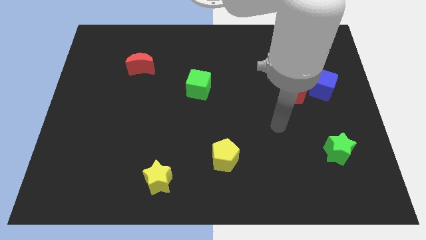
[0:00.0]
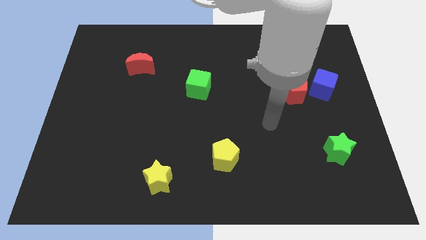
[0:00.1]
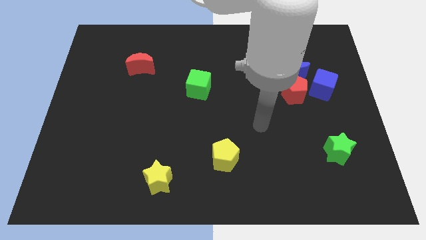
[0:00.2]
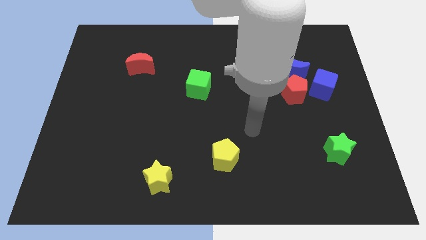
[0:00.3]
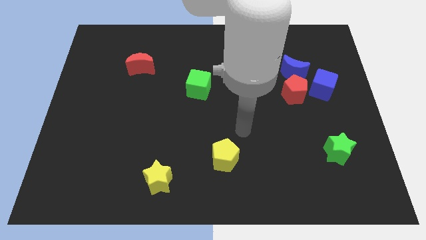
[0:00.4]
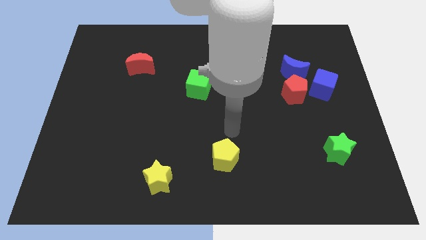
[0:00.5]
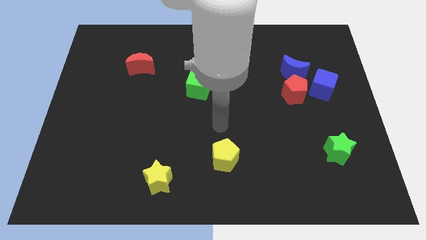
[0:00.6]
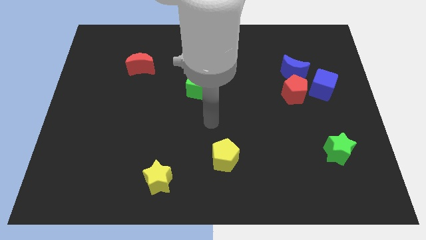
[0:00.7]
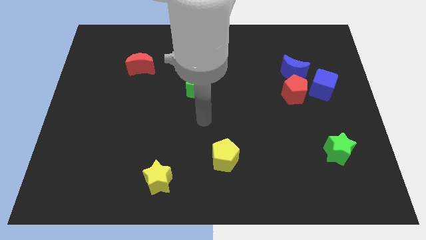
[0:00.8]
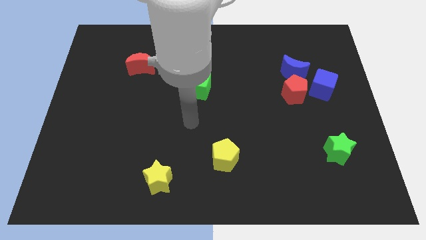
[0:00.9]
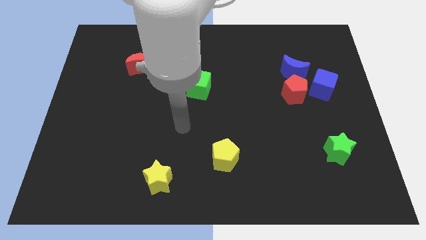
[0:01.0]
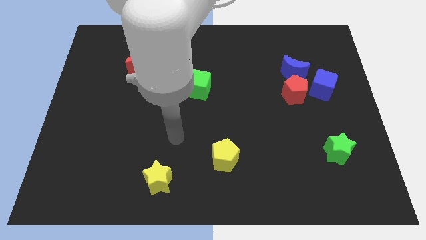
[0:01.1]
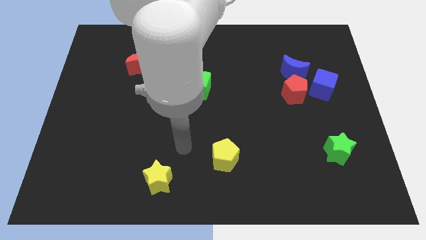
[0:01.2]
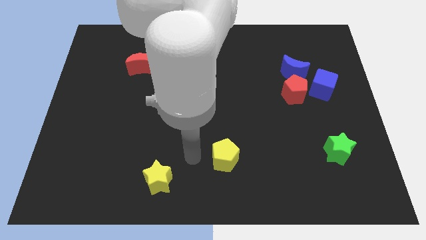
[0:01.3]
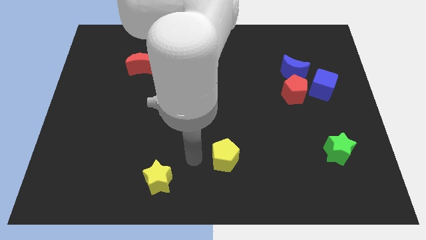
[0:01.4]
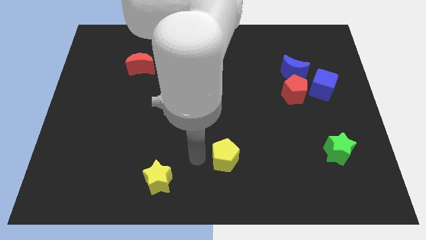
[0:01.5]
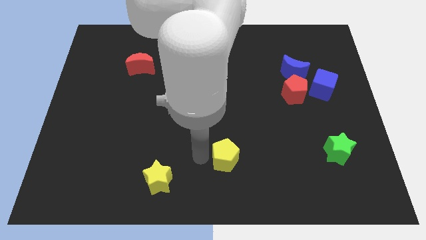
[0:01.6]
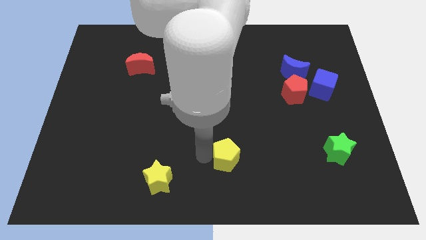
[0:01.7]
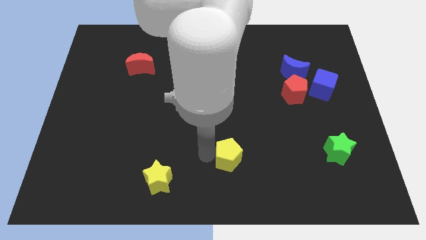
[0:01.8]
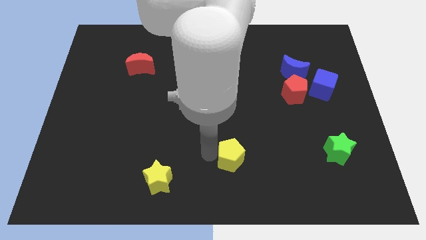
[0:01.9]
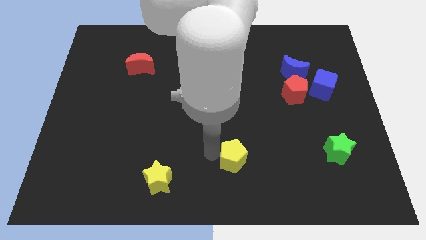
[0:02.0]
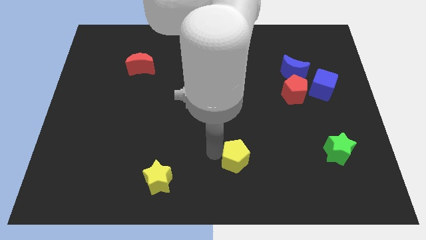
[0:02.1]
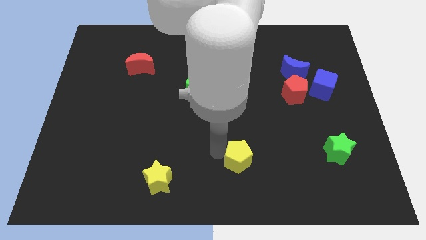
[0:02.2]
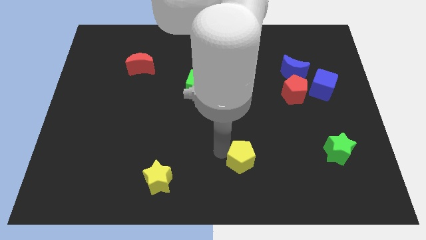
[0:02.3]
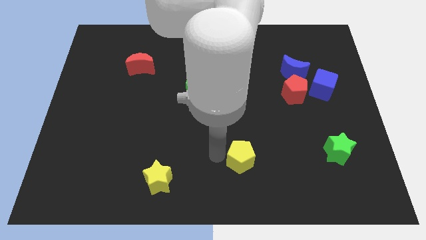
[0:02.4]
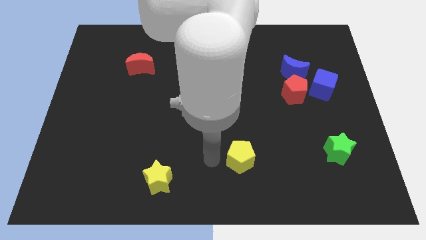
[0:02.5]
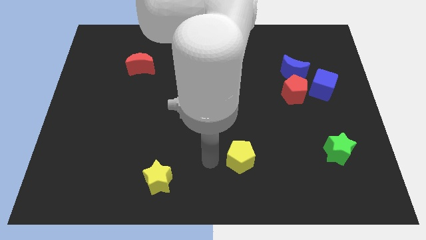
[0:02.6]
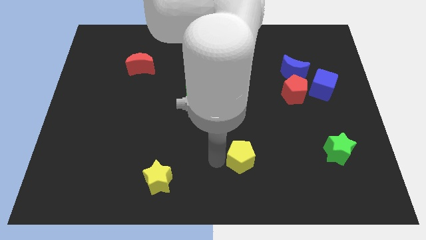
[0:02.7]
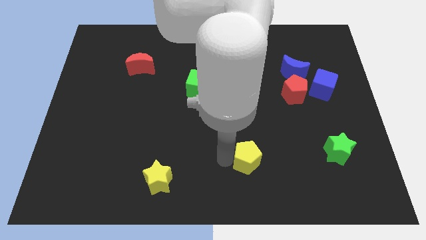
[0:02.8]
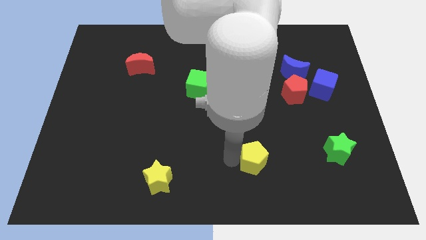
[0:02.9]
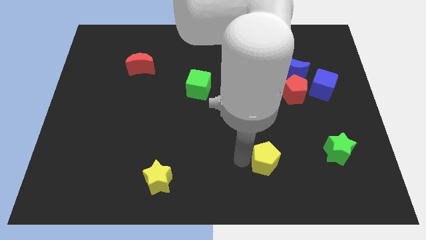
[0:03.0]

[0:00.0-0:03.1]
move the yellow pentagon a bit right

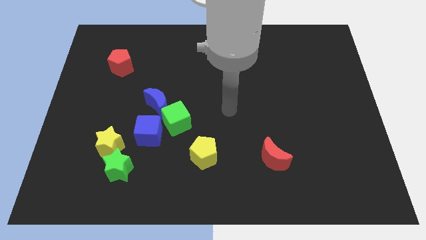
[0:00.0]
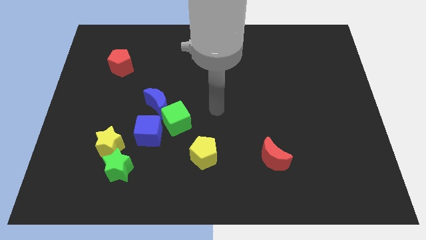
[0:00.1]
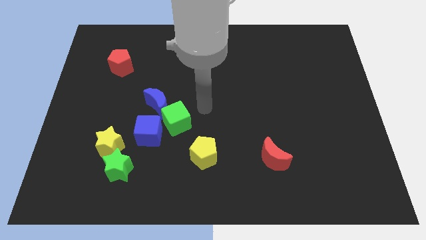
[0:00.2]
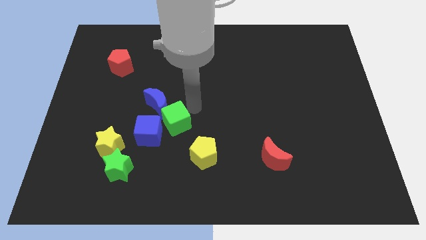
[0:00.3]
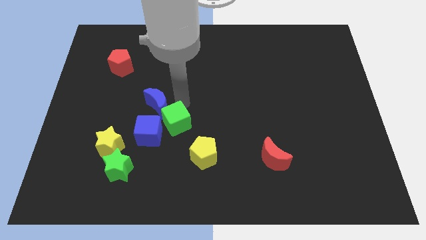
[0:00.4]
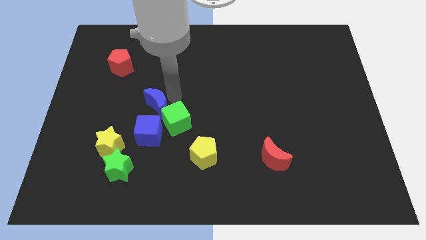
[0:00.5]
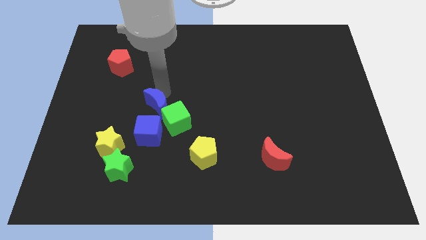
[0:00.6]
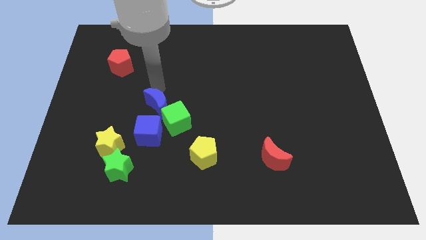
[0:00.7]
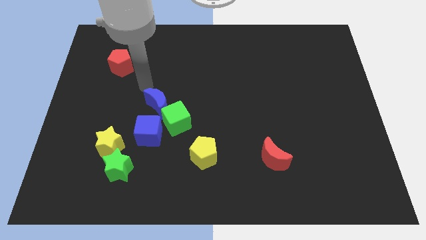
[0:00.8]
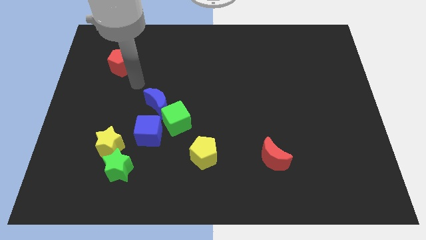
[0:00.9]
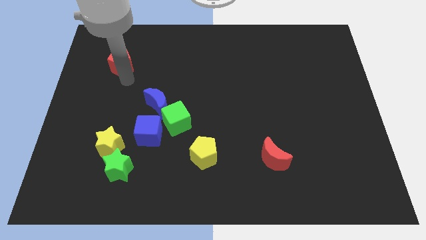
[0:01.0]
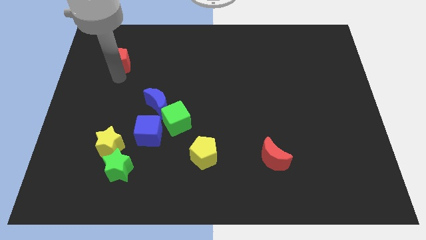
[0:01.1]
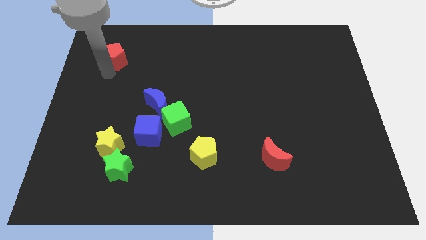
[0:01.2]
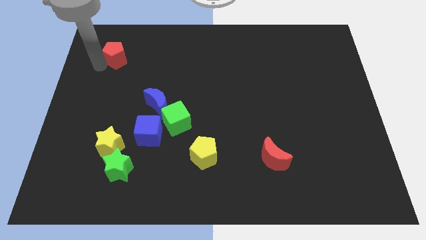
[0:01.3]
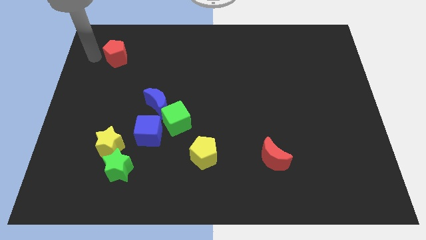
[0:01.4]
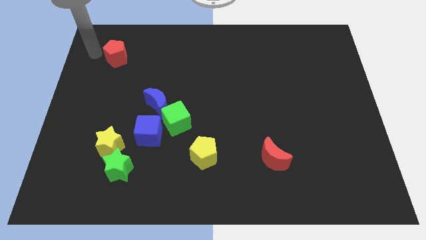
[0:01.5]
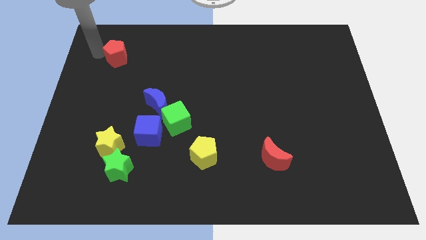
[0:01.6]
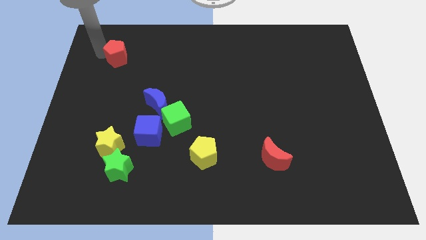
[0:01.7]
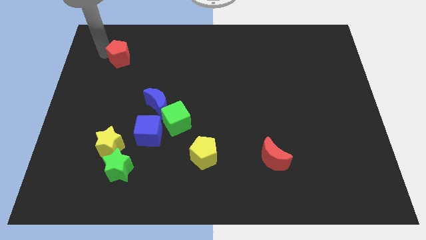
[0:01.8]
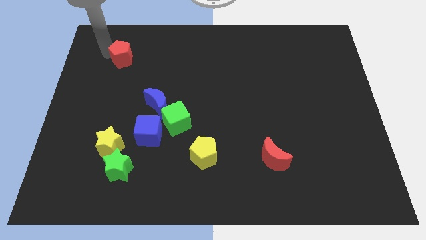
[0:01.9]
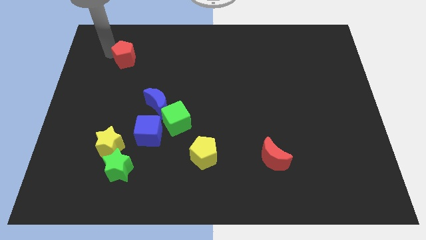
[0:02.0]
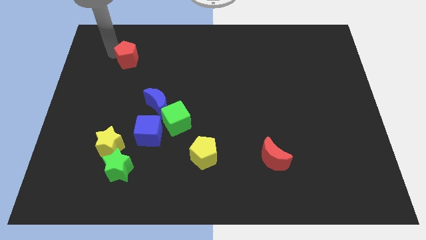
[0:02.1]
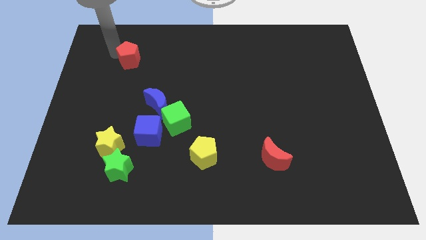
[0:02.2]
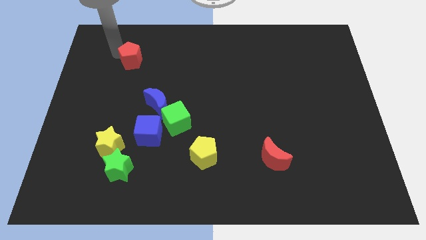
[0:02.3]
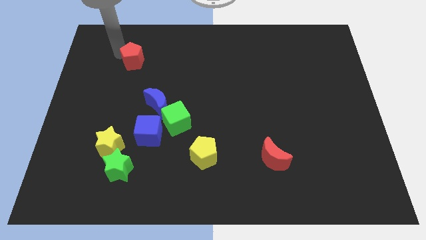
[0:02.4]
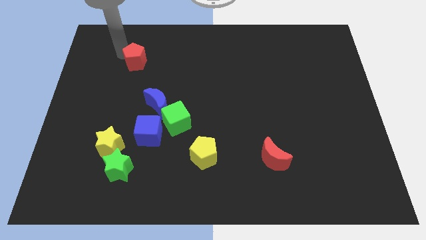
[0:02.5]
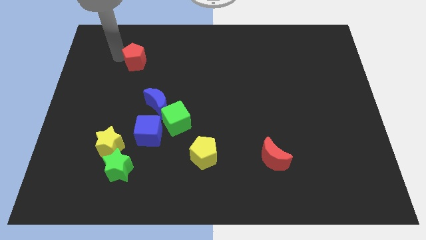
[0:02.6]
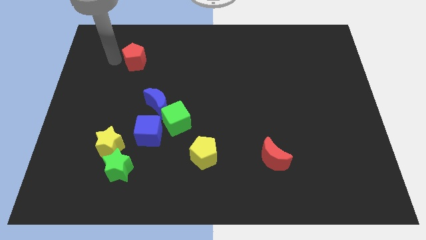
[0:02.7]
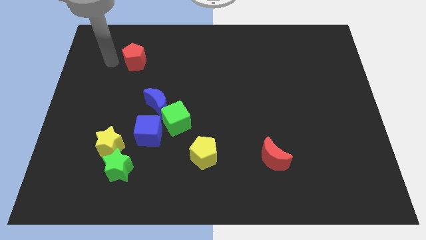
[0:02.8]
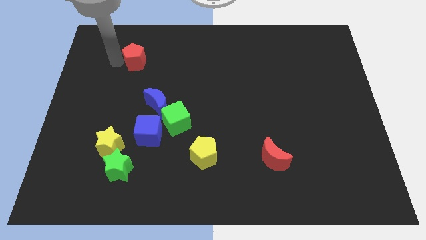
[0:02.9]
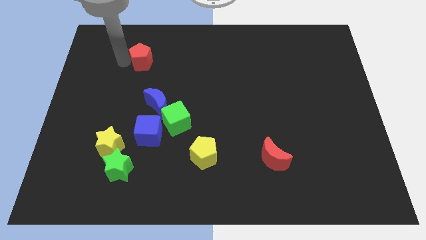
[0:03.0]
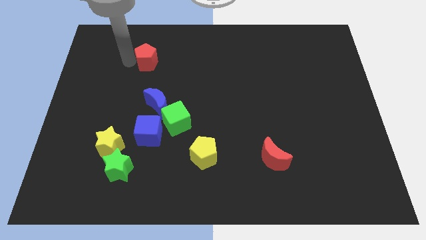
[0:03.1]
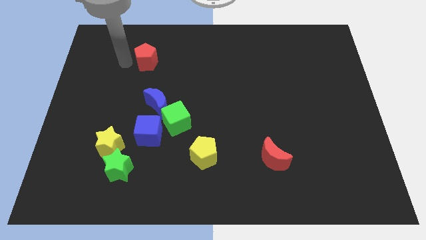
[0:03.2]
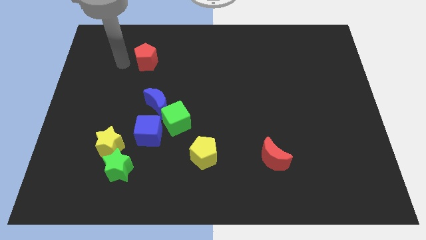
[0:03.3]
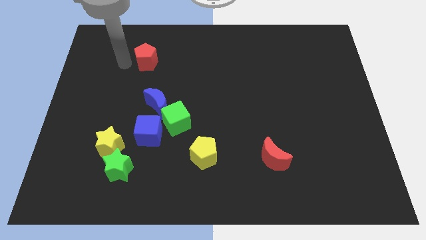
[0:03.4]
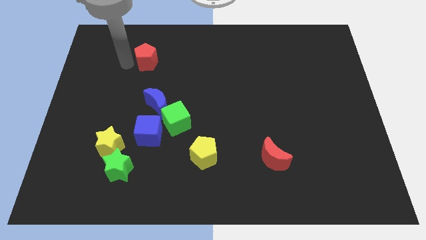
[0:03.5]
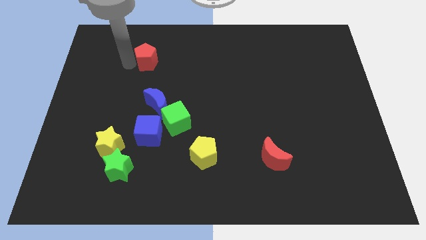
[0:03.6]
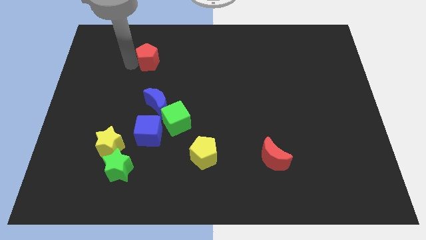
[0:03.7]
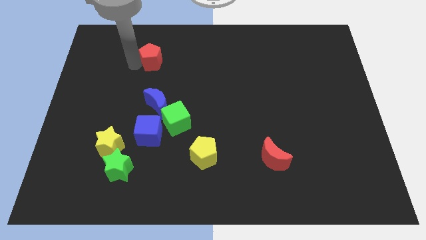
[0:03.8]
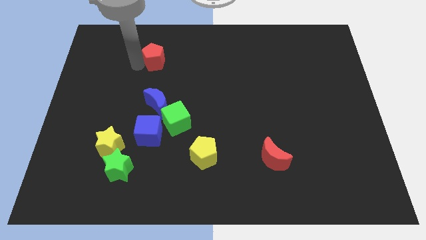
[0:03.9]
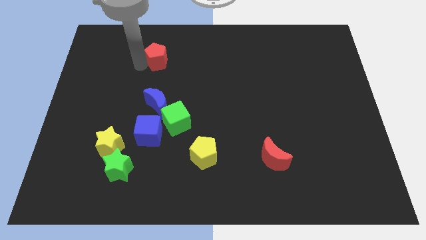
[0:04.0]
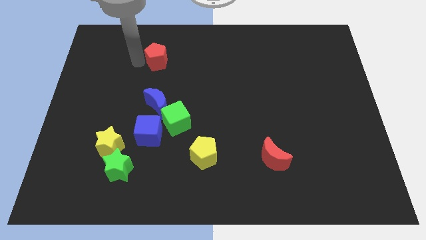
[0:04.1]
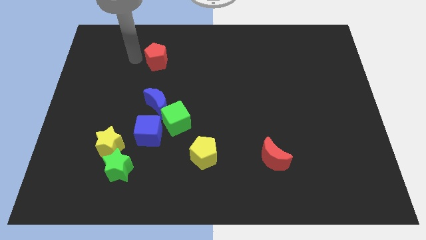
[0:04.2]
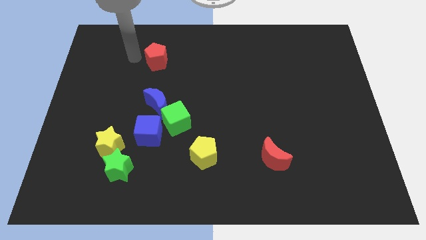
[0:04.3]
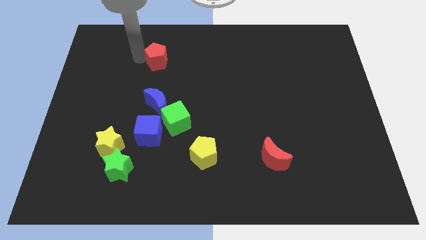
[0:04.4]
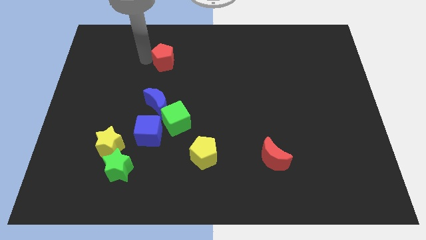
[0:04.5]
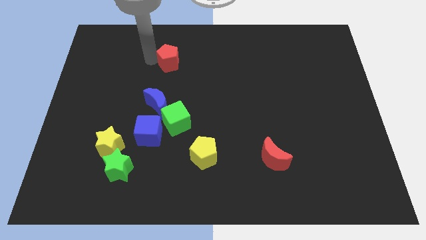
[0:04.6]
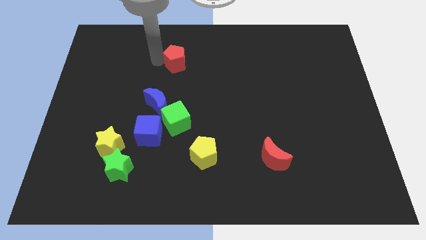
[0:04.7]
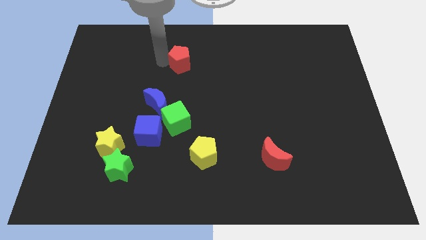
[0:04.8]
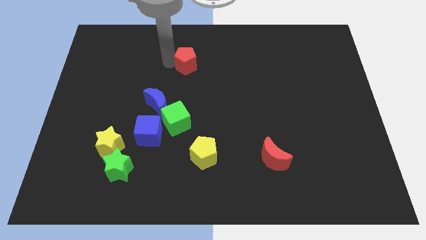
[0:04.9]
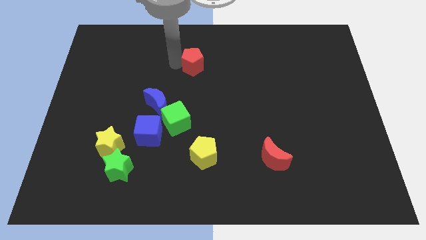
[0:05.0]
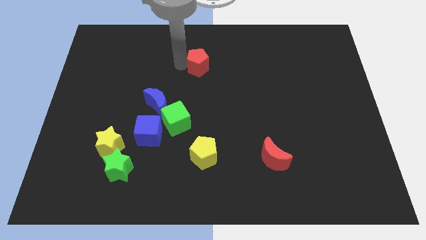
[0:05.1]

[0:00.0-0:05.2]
slide the red pentagon right
